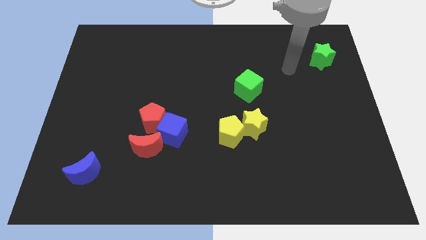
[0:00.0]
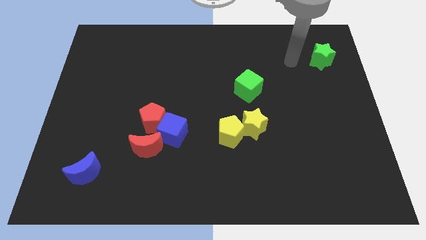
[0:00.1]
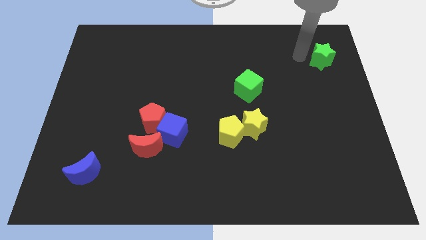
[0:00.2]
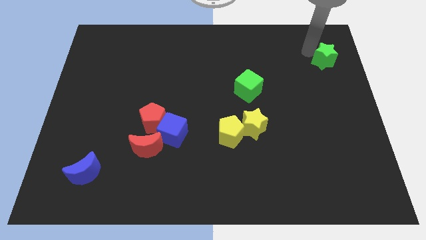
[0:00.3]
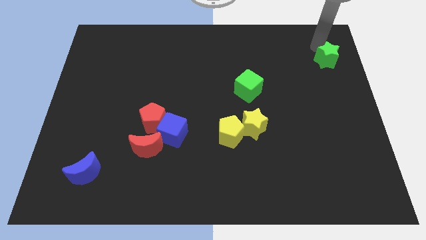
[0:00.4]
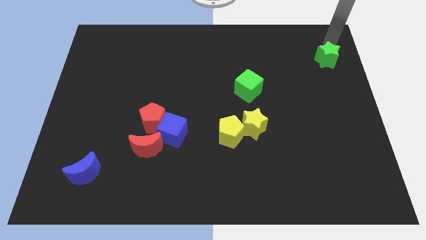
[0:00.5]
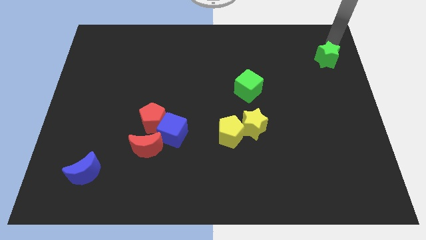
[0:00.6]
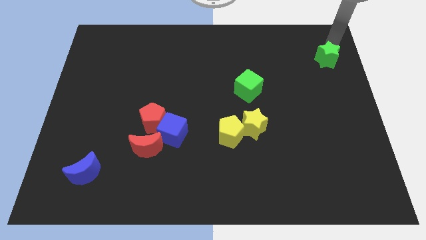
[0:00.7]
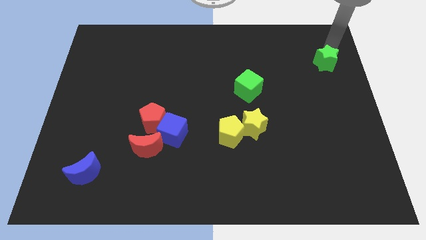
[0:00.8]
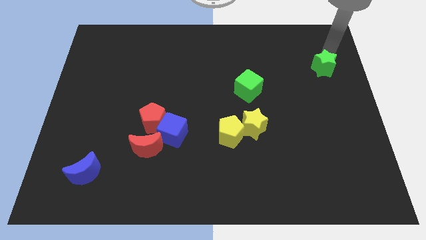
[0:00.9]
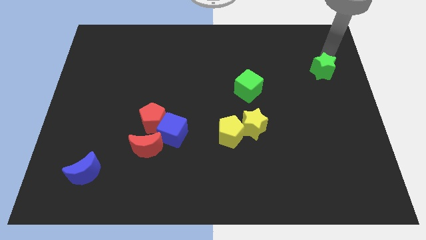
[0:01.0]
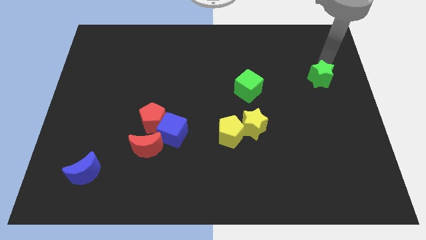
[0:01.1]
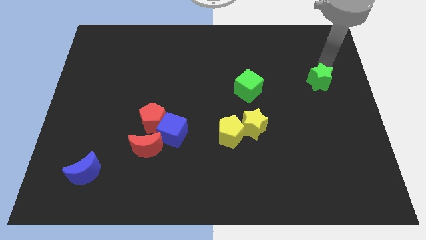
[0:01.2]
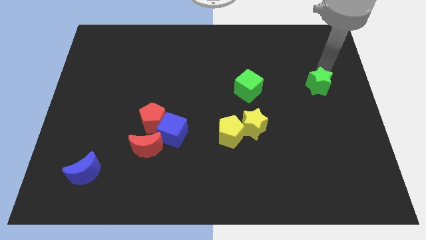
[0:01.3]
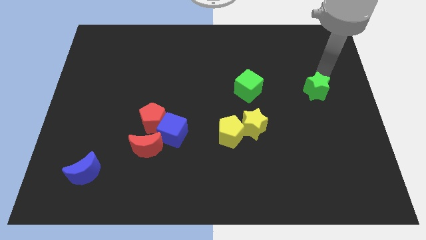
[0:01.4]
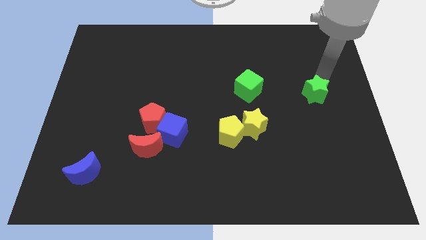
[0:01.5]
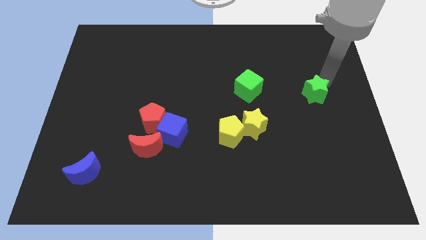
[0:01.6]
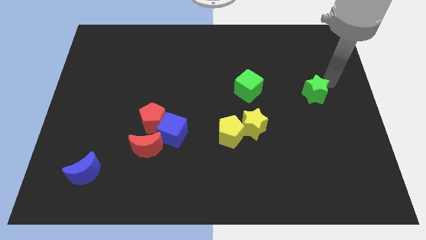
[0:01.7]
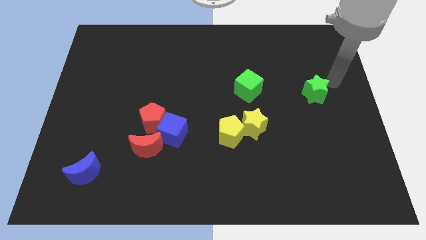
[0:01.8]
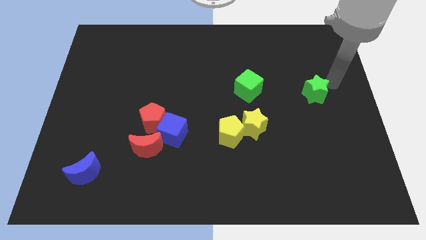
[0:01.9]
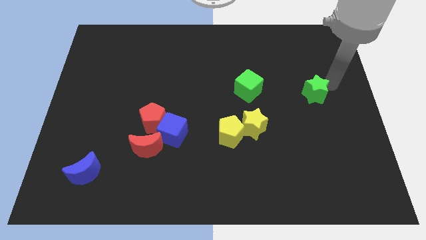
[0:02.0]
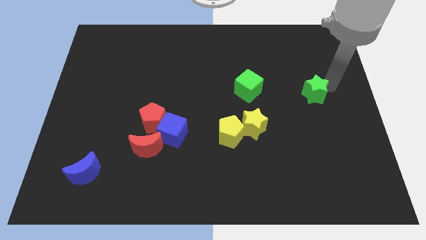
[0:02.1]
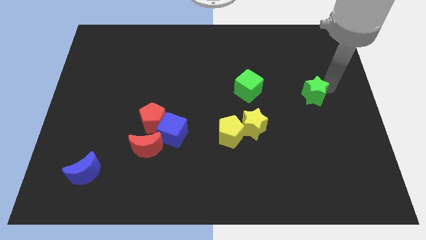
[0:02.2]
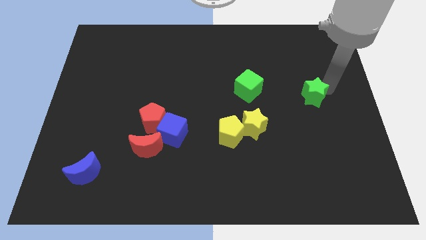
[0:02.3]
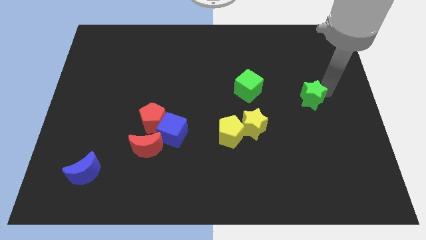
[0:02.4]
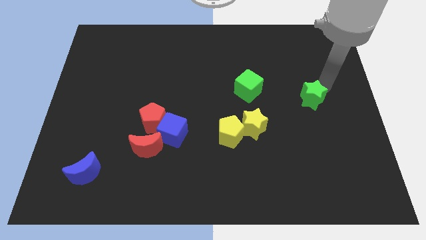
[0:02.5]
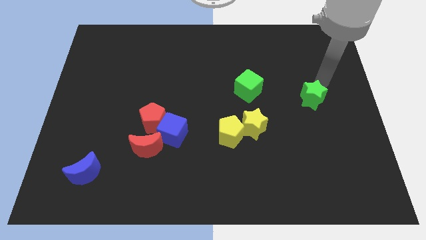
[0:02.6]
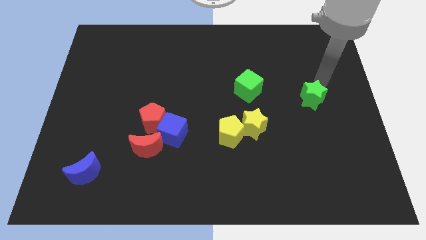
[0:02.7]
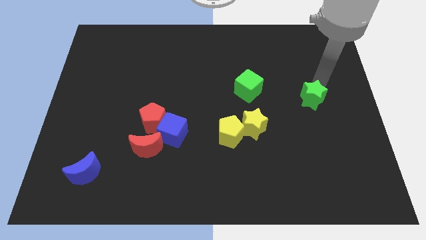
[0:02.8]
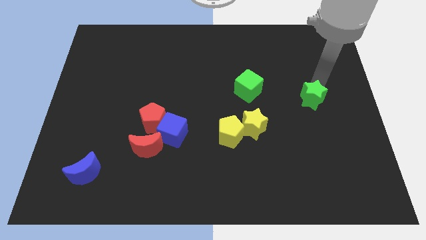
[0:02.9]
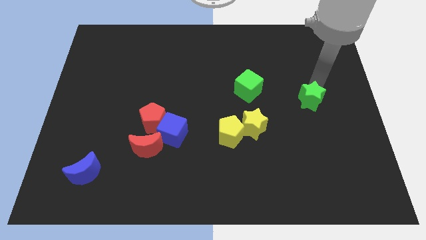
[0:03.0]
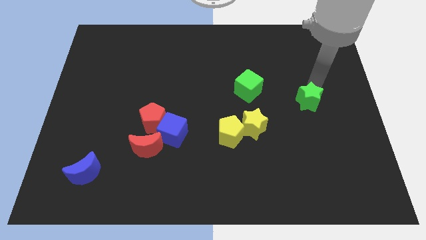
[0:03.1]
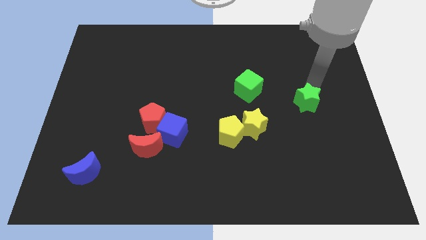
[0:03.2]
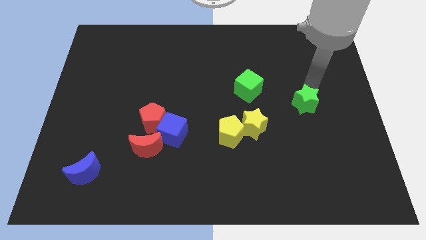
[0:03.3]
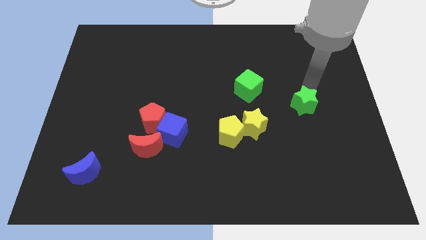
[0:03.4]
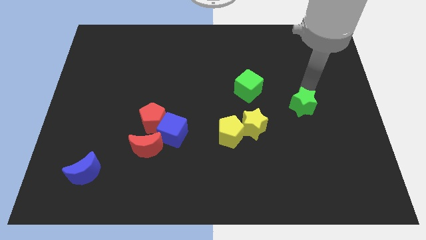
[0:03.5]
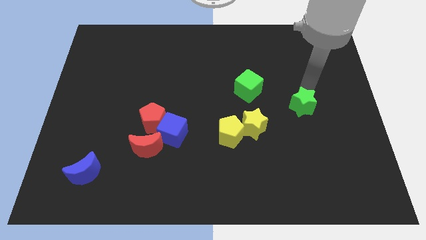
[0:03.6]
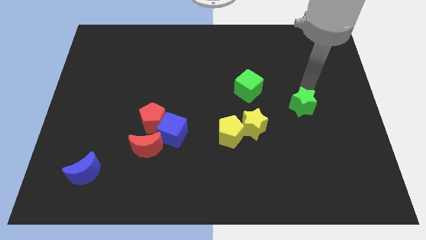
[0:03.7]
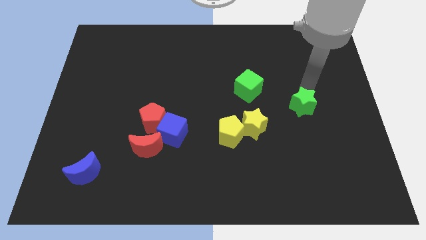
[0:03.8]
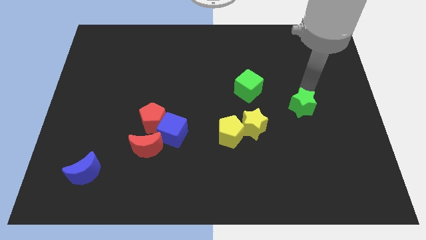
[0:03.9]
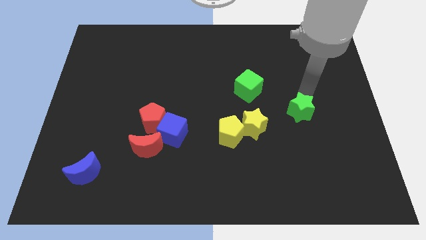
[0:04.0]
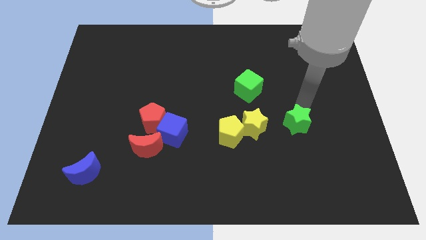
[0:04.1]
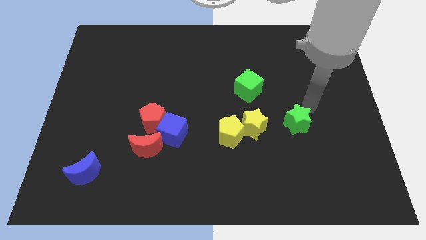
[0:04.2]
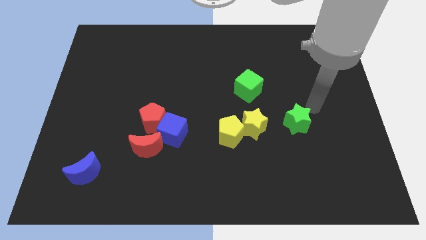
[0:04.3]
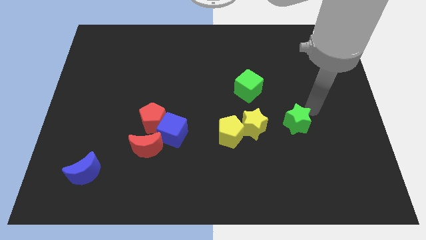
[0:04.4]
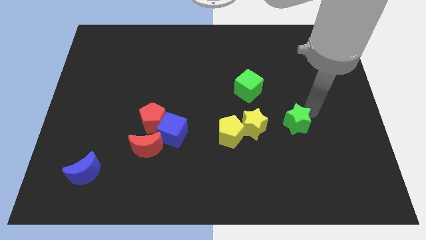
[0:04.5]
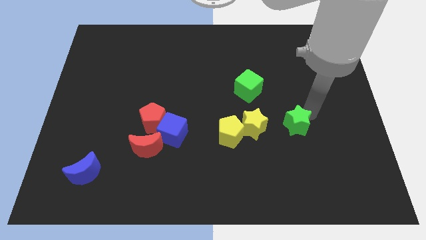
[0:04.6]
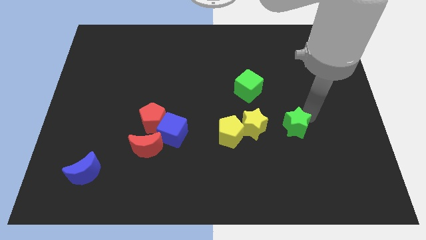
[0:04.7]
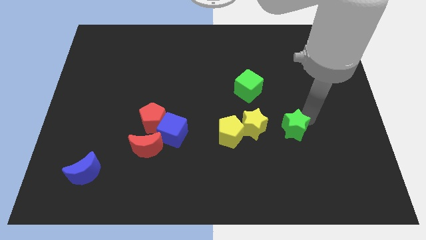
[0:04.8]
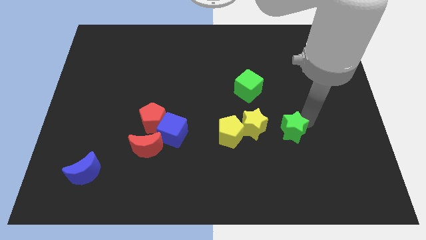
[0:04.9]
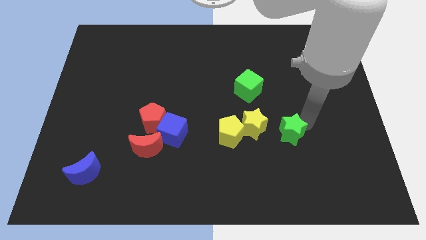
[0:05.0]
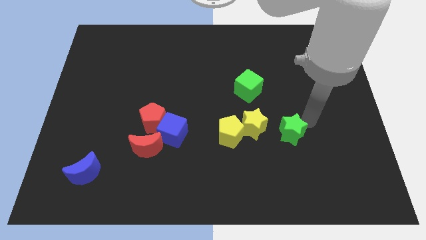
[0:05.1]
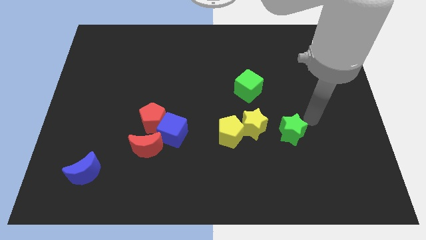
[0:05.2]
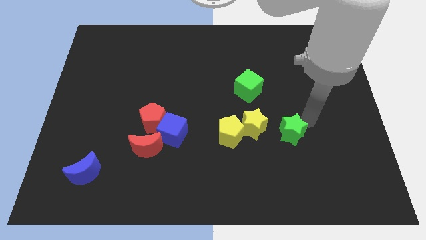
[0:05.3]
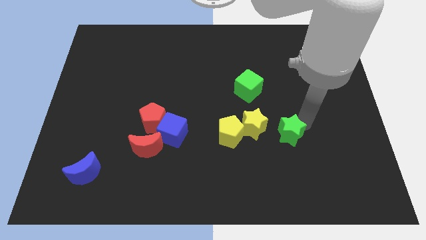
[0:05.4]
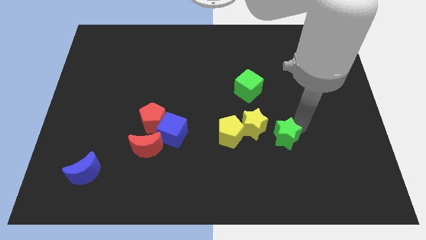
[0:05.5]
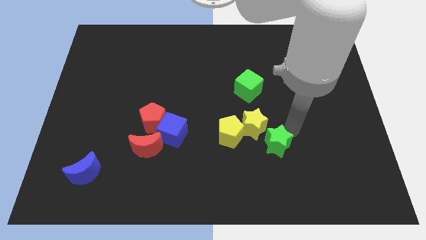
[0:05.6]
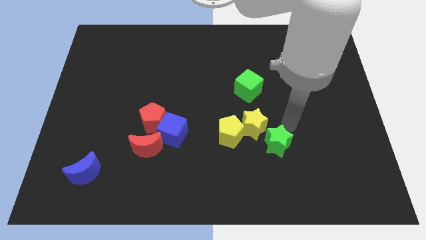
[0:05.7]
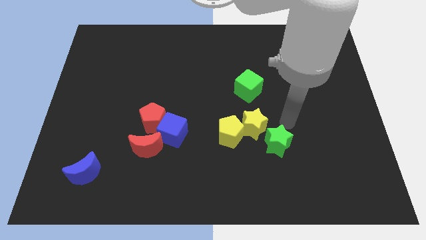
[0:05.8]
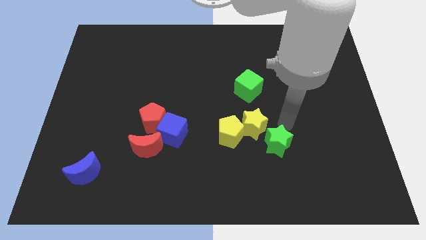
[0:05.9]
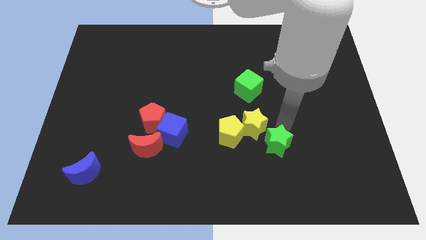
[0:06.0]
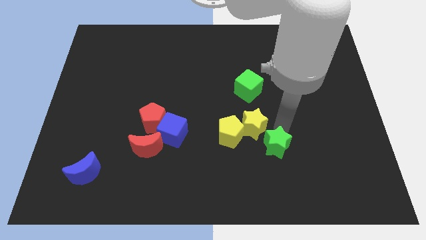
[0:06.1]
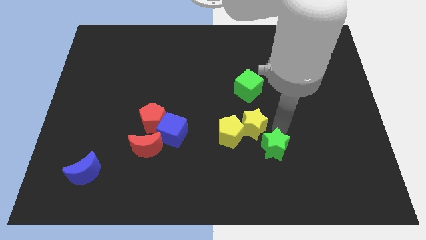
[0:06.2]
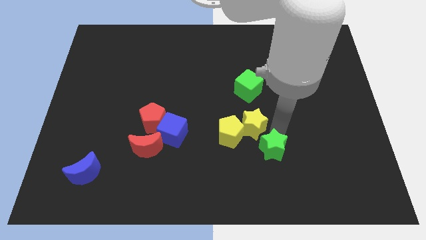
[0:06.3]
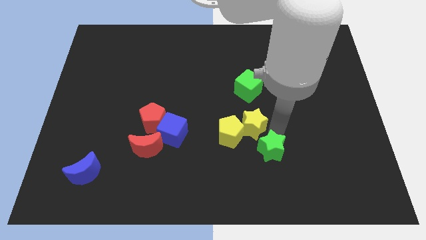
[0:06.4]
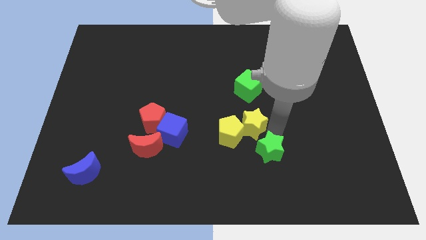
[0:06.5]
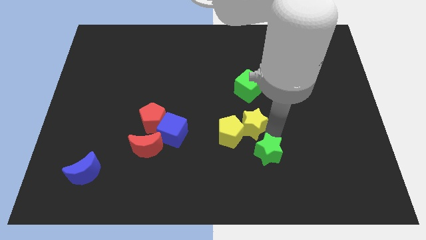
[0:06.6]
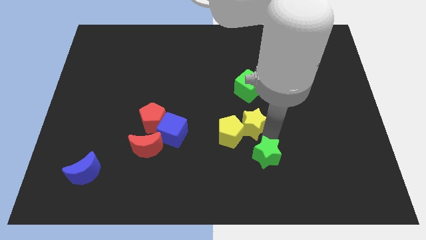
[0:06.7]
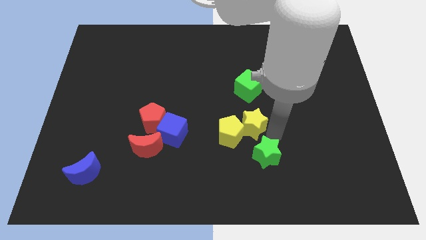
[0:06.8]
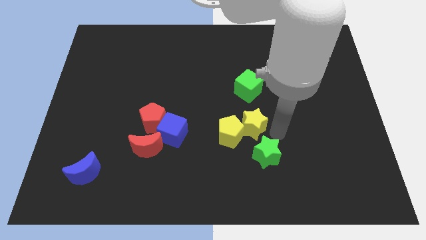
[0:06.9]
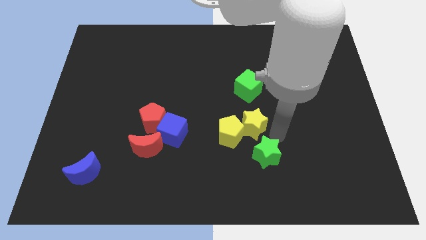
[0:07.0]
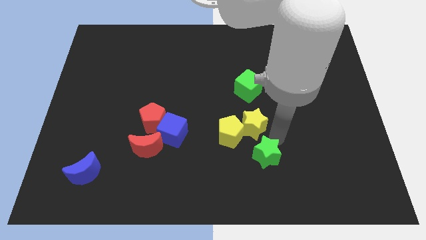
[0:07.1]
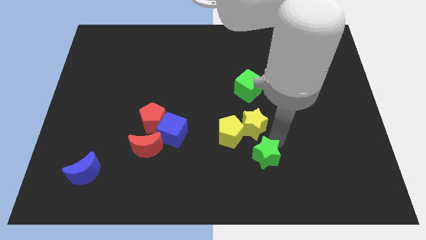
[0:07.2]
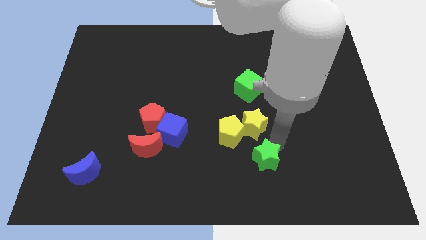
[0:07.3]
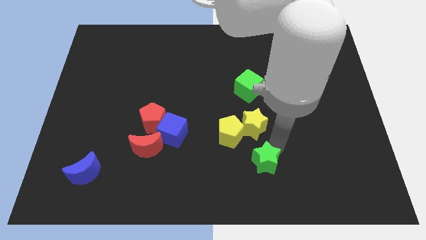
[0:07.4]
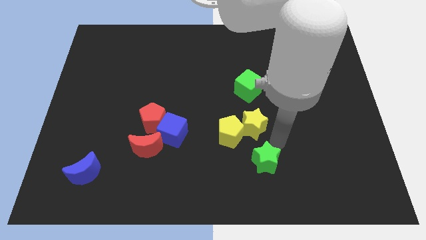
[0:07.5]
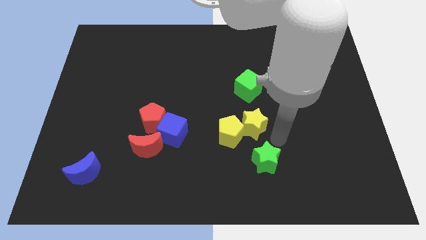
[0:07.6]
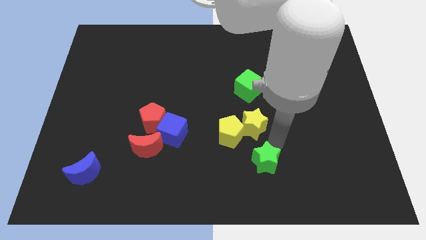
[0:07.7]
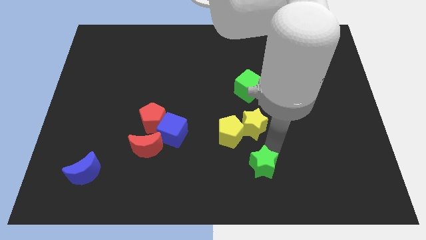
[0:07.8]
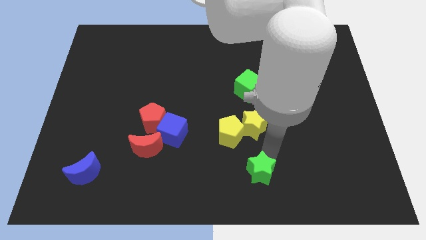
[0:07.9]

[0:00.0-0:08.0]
move the green star to the bottom
